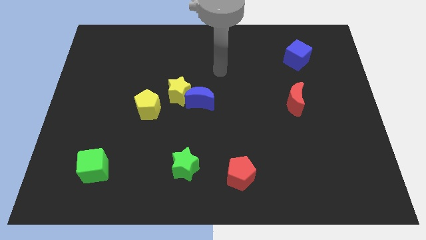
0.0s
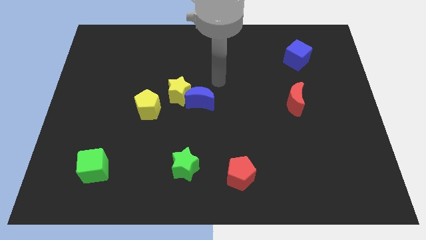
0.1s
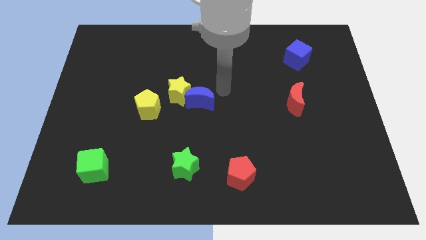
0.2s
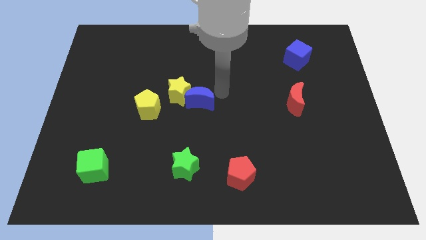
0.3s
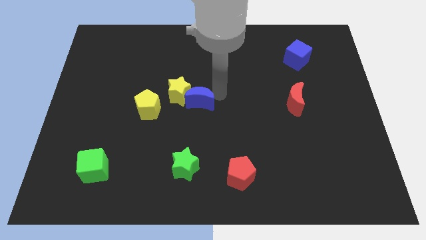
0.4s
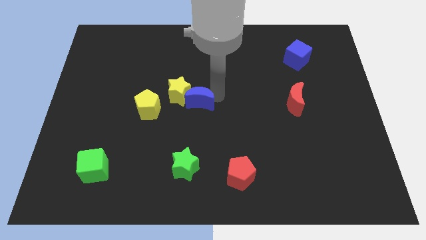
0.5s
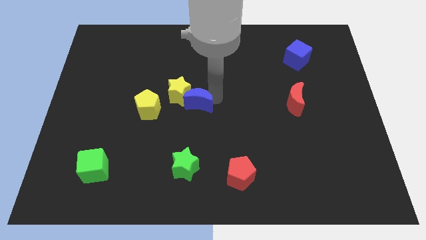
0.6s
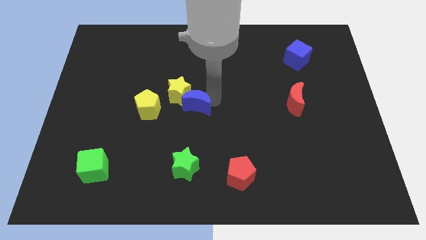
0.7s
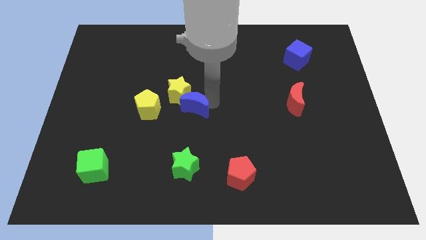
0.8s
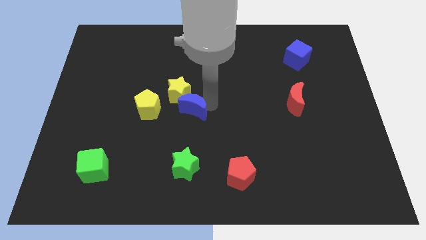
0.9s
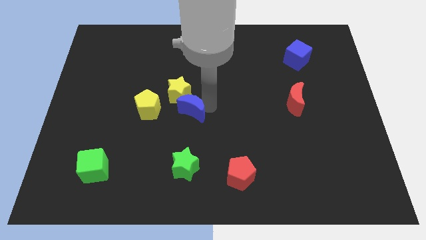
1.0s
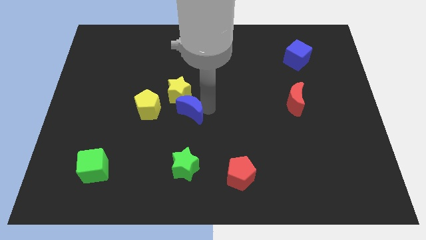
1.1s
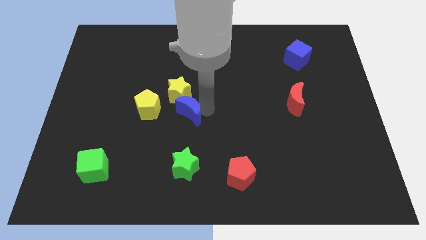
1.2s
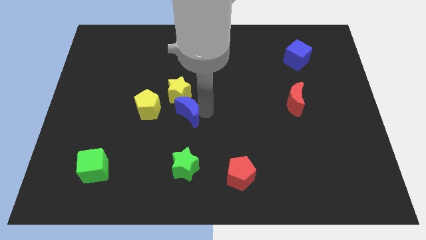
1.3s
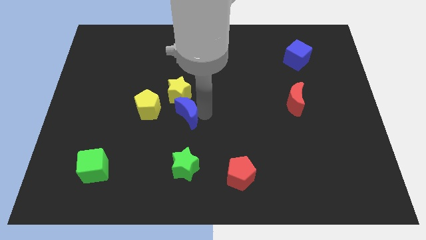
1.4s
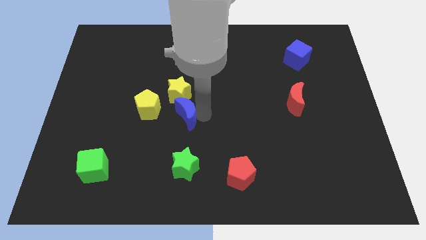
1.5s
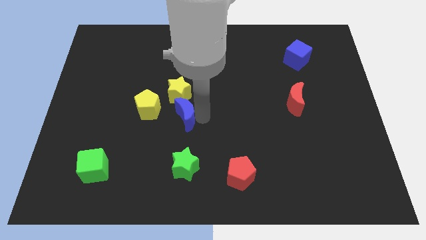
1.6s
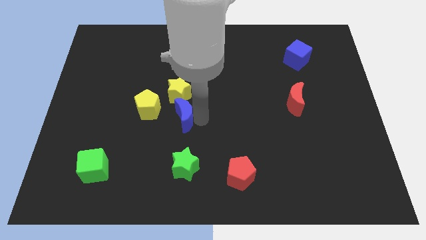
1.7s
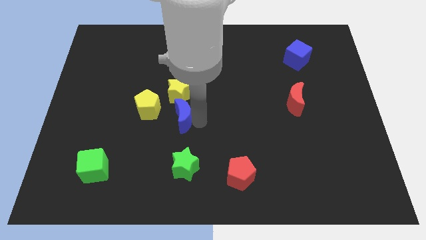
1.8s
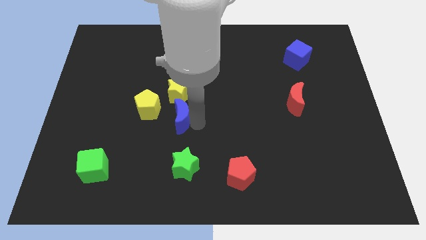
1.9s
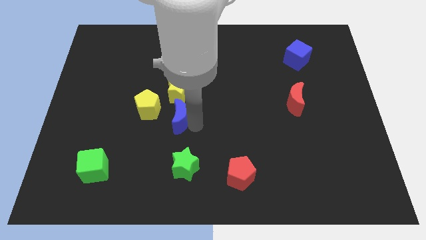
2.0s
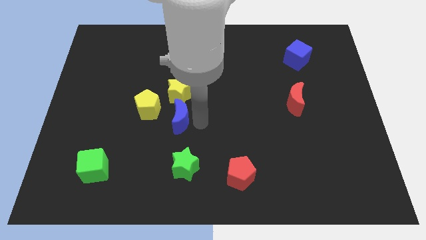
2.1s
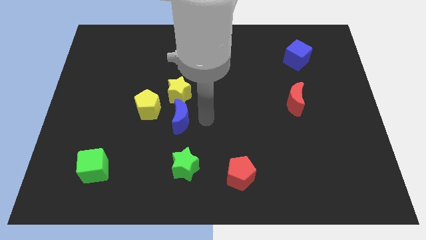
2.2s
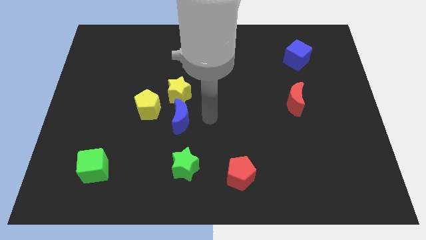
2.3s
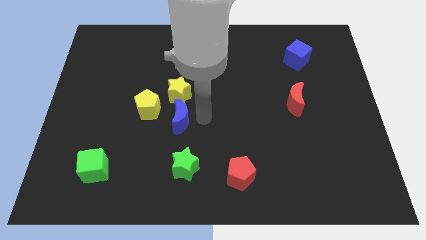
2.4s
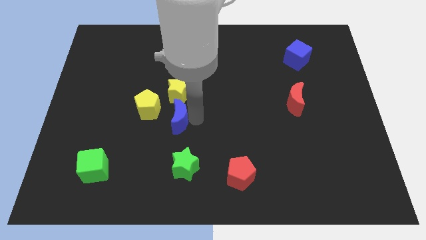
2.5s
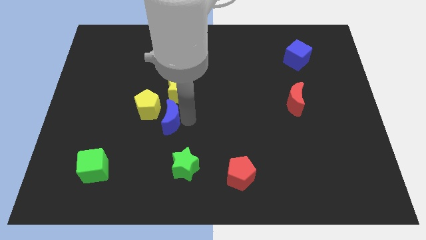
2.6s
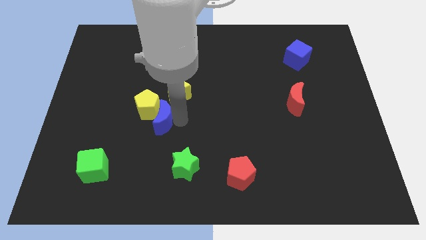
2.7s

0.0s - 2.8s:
slightly push the blue moon to the left

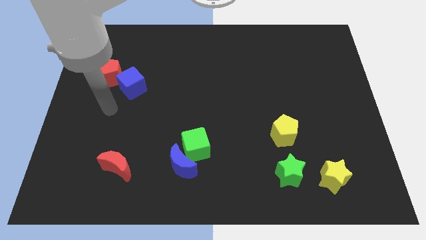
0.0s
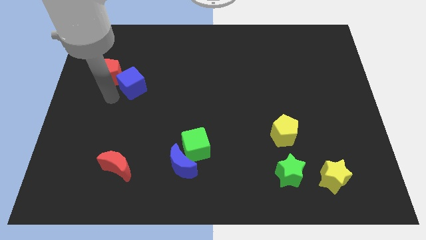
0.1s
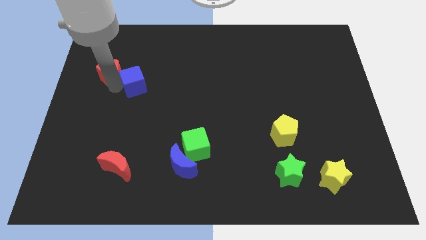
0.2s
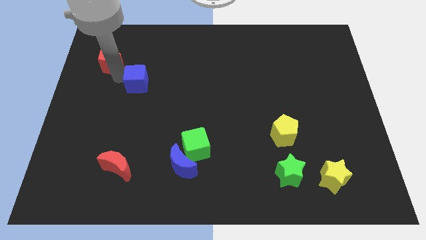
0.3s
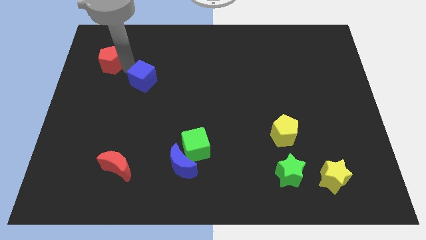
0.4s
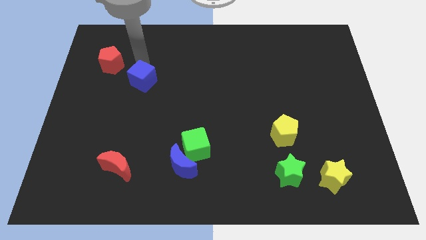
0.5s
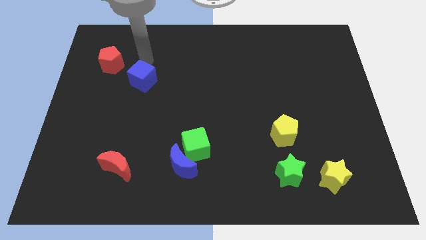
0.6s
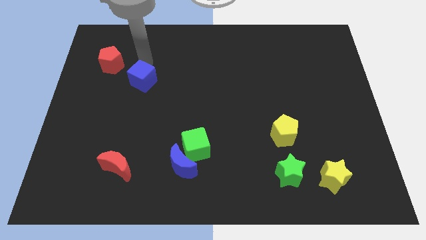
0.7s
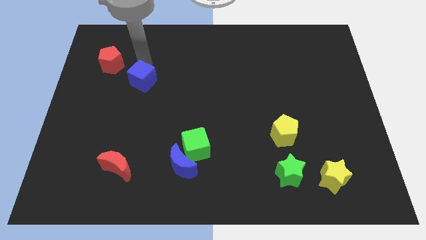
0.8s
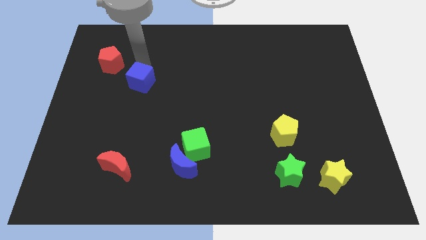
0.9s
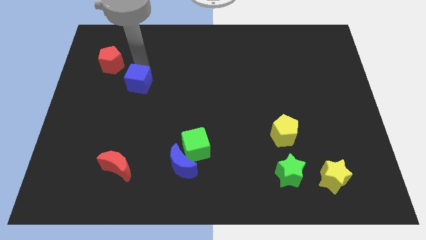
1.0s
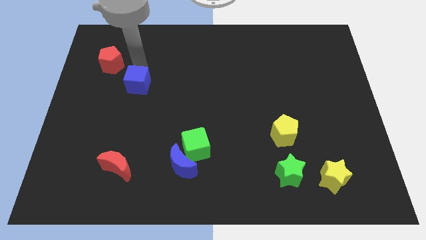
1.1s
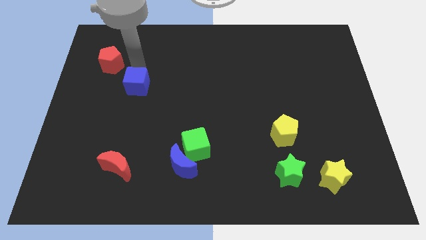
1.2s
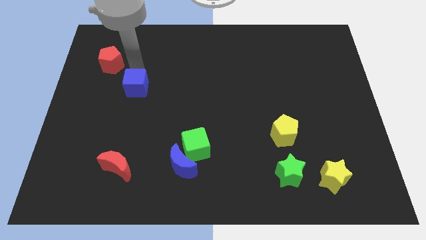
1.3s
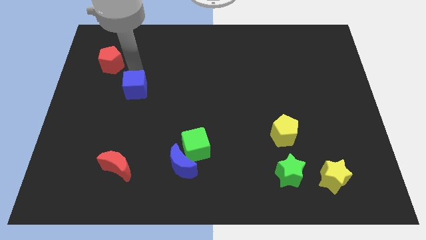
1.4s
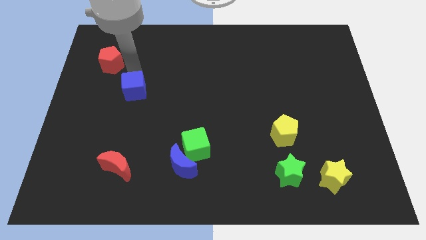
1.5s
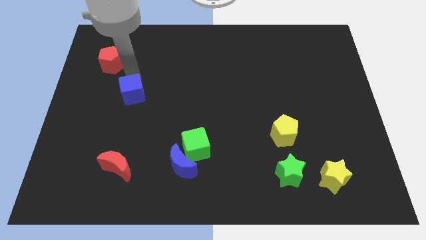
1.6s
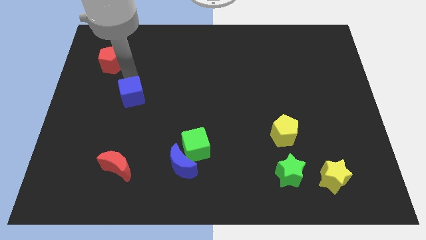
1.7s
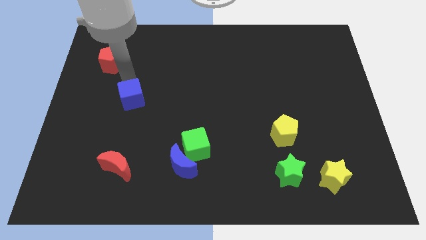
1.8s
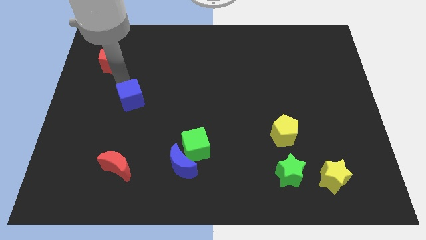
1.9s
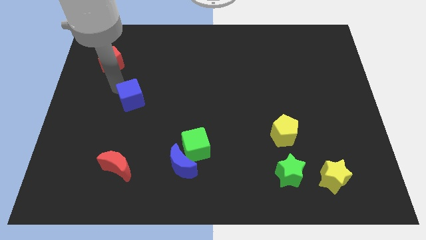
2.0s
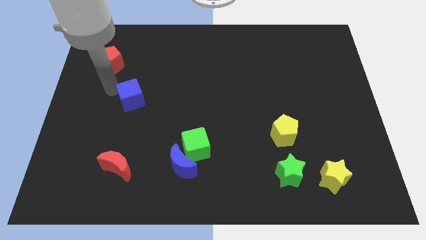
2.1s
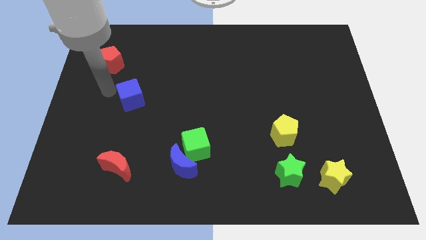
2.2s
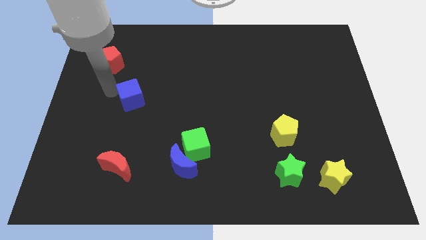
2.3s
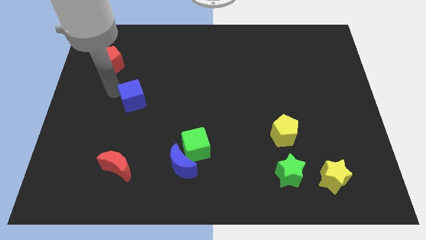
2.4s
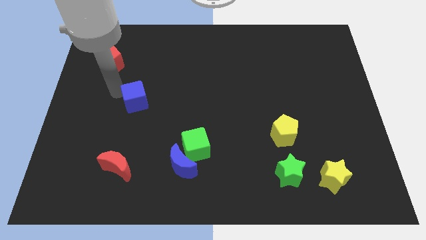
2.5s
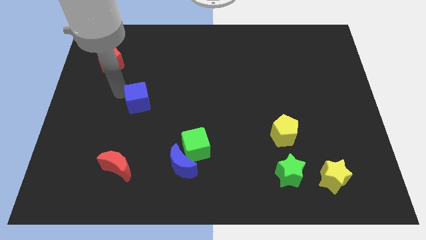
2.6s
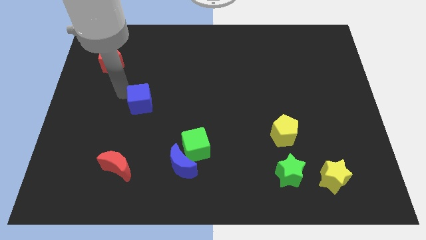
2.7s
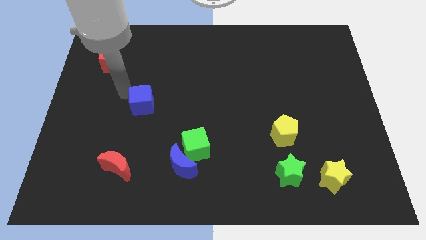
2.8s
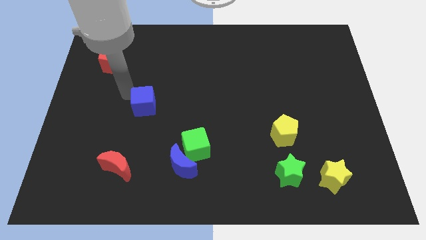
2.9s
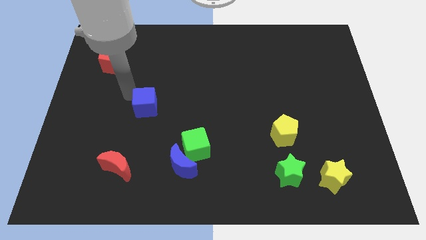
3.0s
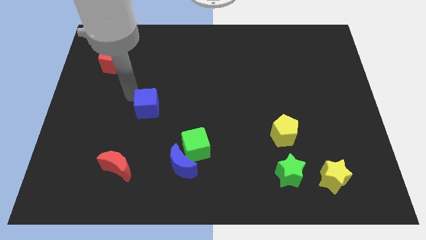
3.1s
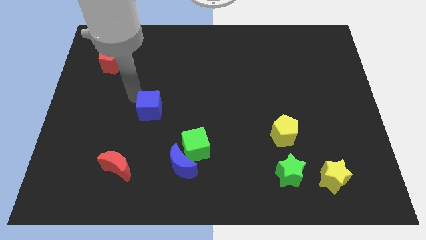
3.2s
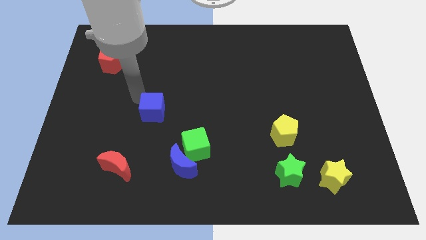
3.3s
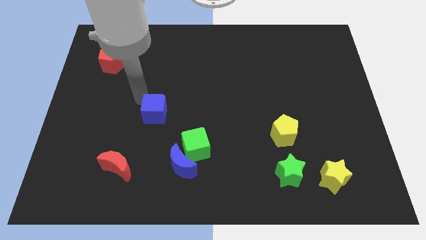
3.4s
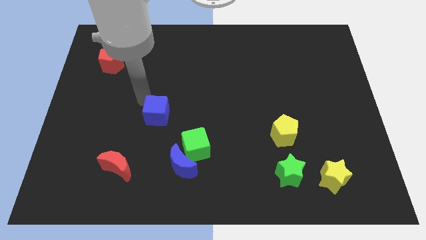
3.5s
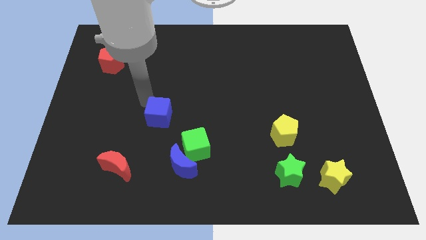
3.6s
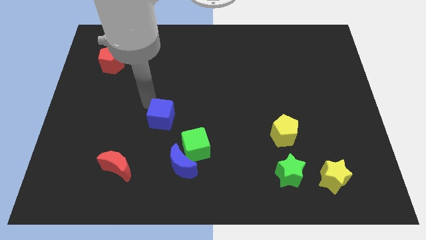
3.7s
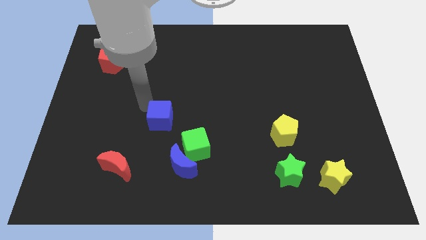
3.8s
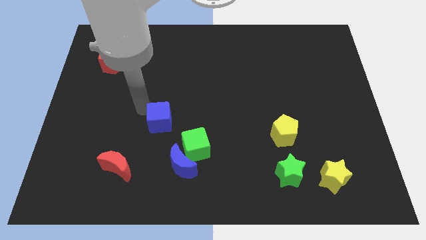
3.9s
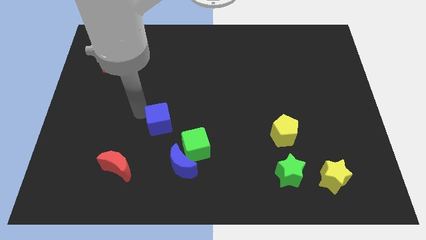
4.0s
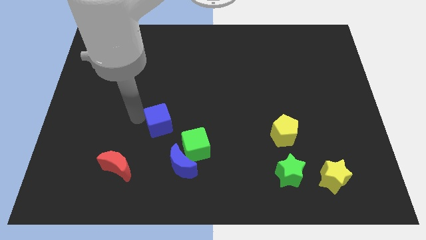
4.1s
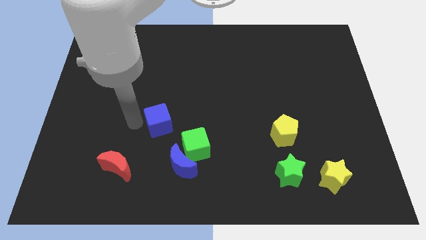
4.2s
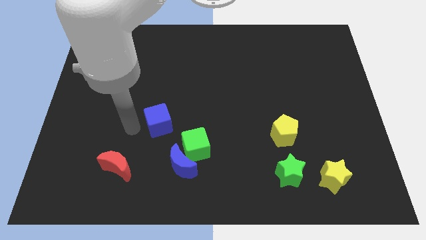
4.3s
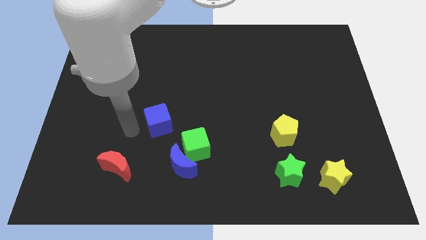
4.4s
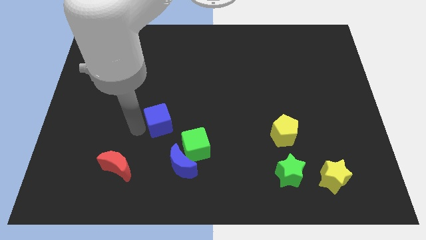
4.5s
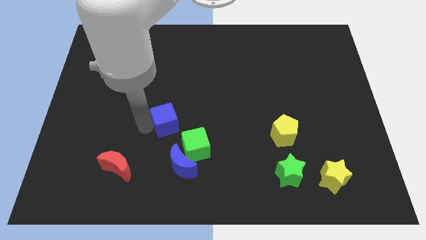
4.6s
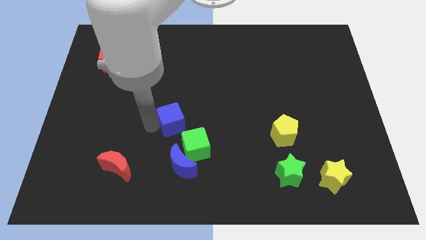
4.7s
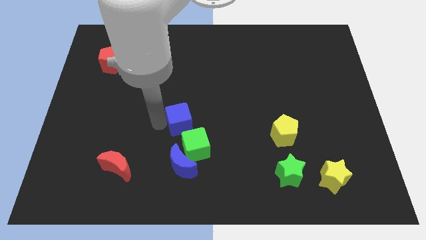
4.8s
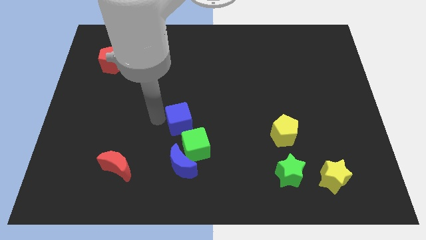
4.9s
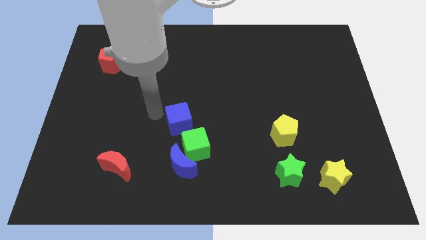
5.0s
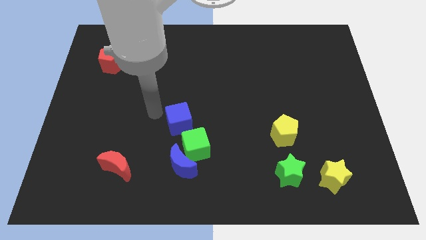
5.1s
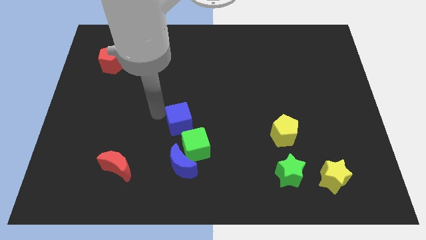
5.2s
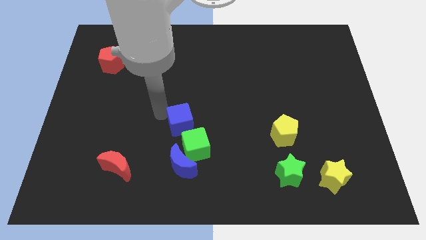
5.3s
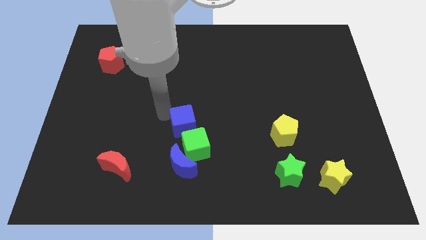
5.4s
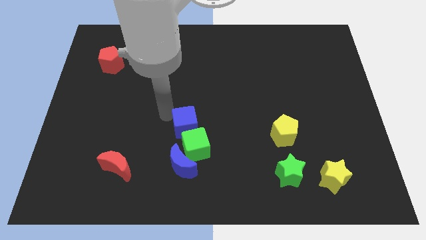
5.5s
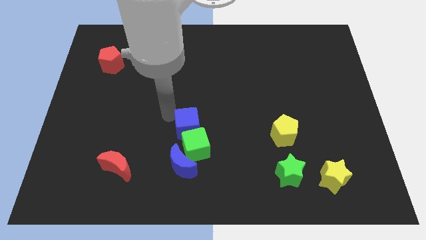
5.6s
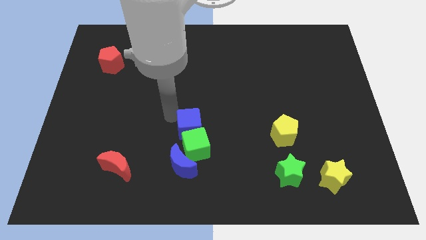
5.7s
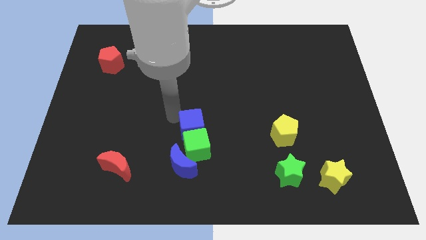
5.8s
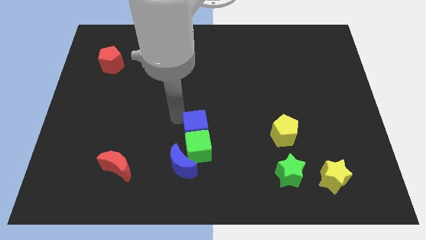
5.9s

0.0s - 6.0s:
push the blue cube downwards and to the right
